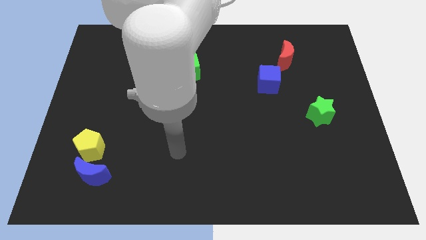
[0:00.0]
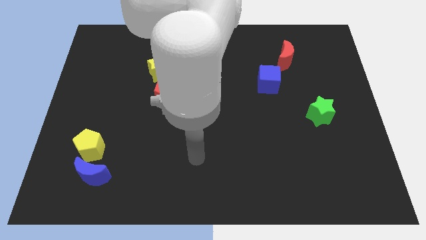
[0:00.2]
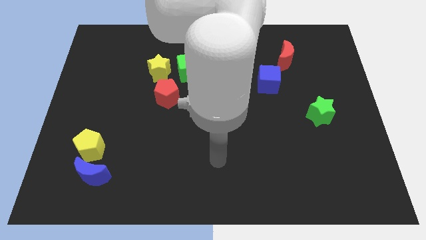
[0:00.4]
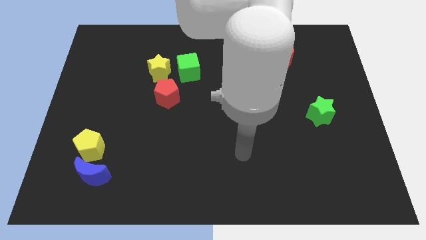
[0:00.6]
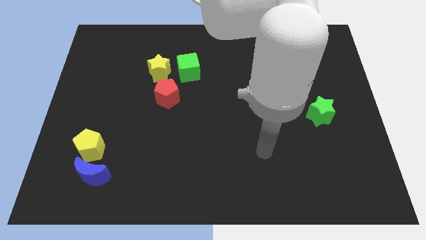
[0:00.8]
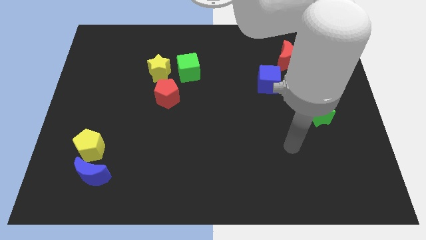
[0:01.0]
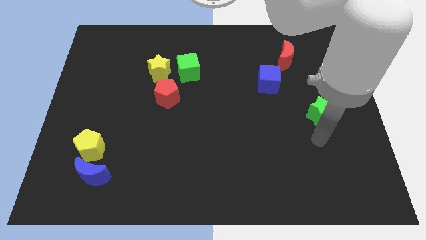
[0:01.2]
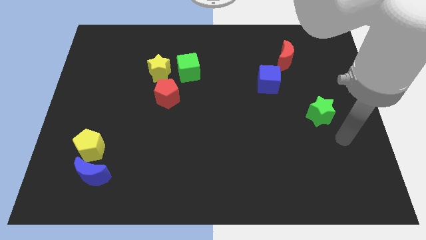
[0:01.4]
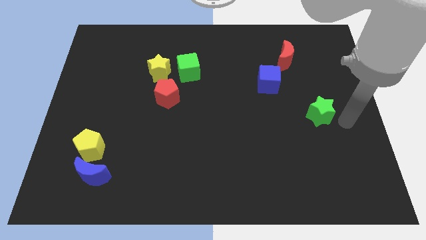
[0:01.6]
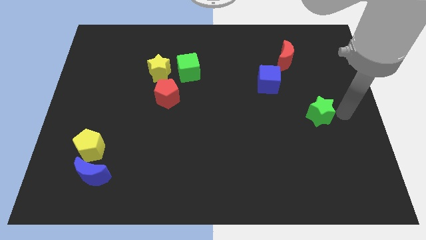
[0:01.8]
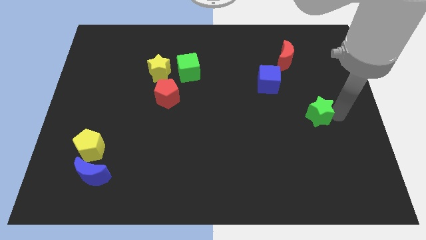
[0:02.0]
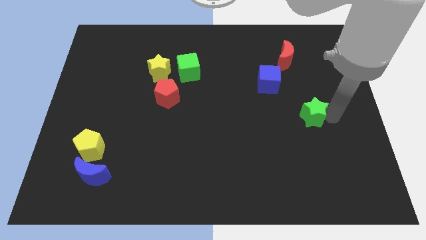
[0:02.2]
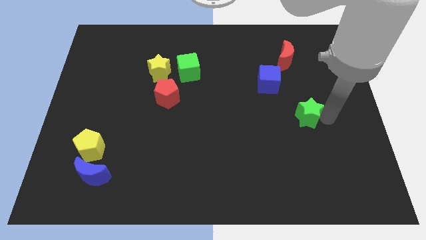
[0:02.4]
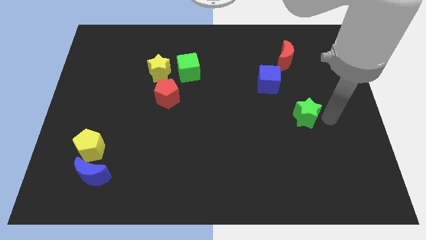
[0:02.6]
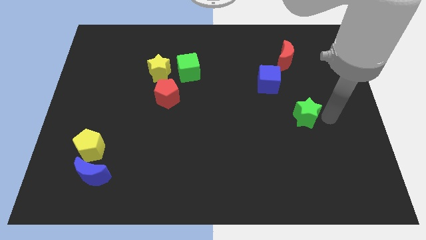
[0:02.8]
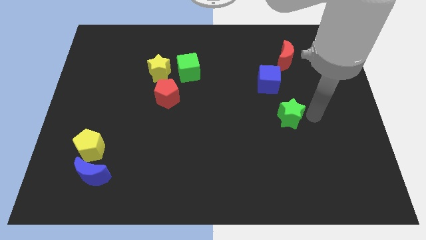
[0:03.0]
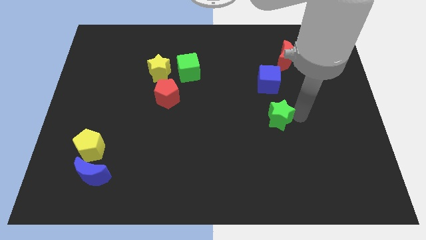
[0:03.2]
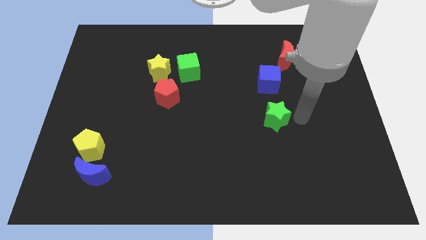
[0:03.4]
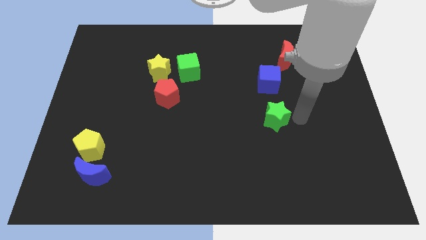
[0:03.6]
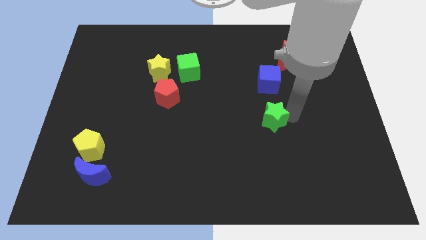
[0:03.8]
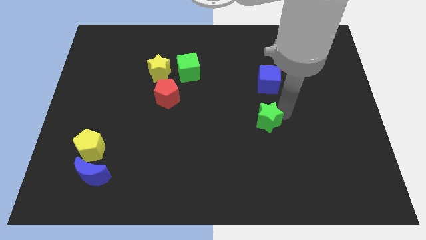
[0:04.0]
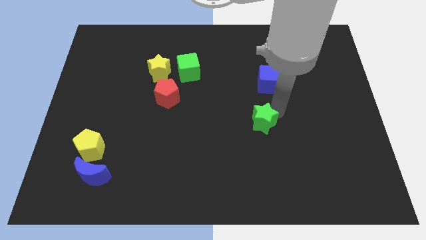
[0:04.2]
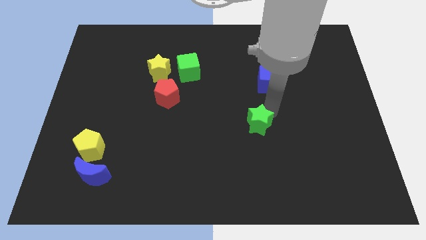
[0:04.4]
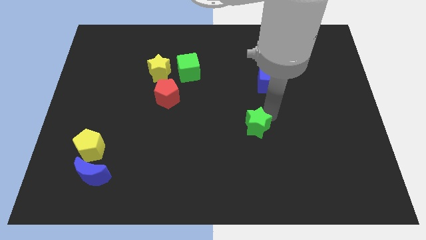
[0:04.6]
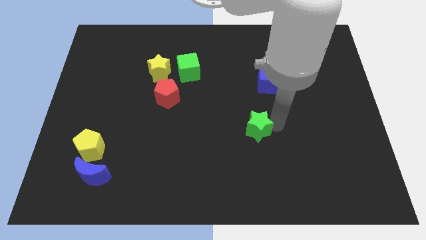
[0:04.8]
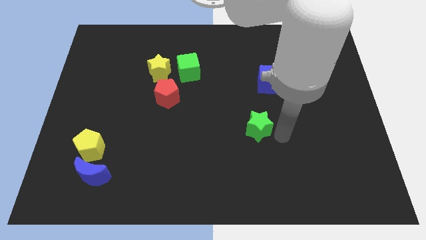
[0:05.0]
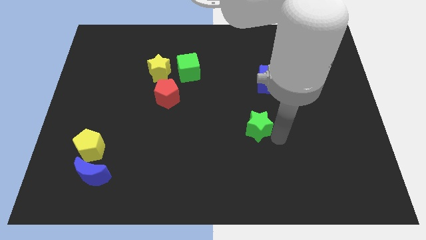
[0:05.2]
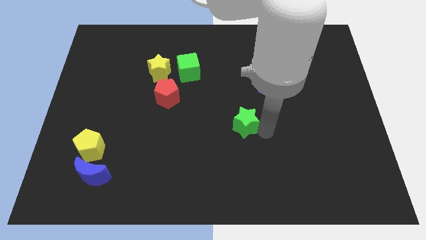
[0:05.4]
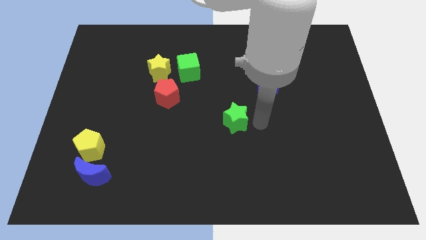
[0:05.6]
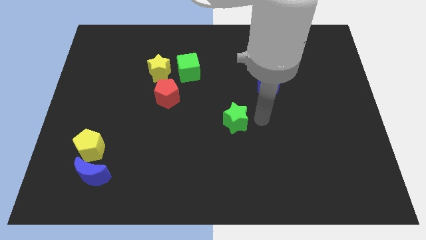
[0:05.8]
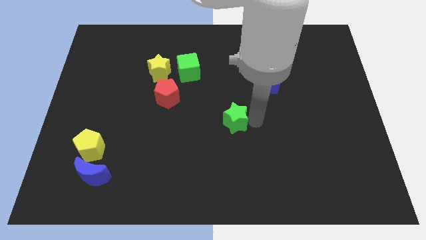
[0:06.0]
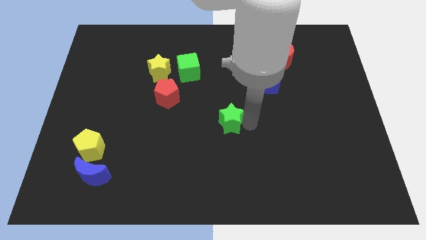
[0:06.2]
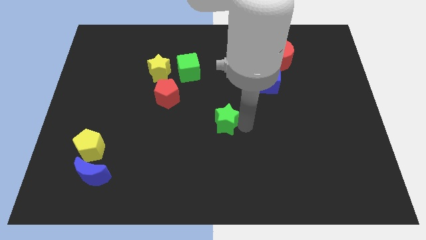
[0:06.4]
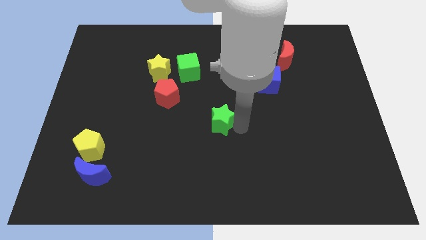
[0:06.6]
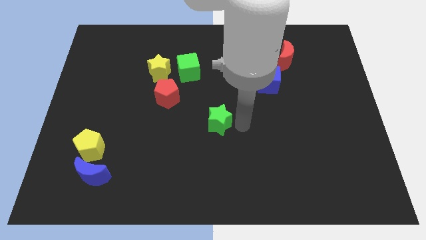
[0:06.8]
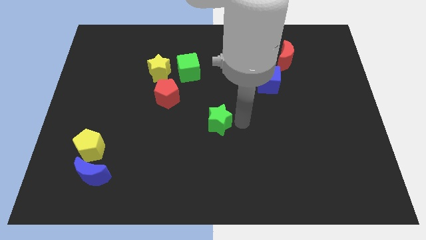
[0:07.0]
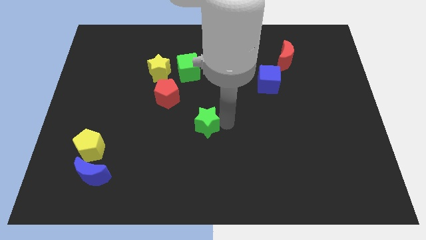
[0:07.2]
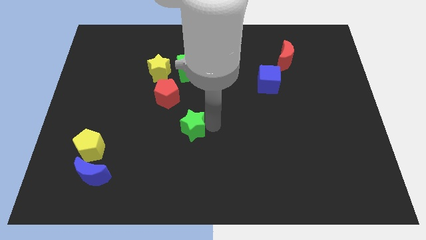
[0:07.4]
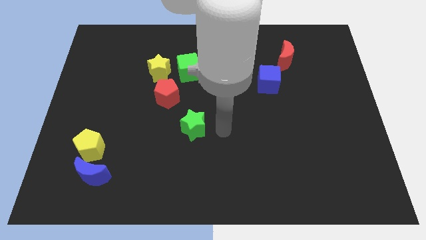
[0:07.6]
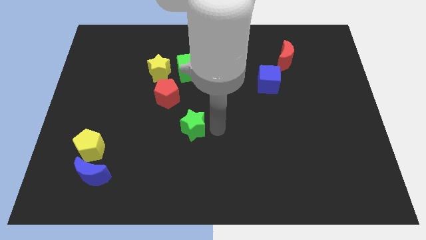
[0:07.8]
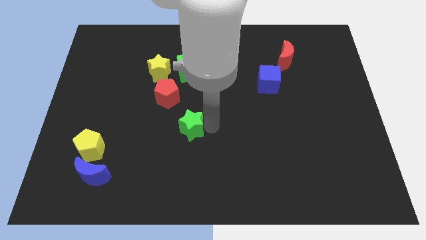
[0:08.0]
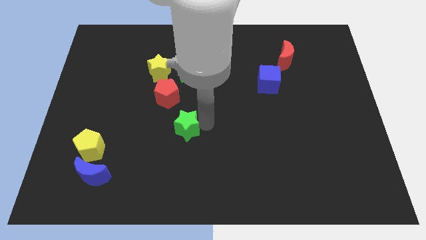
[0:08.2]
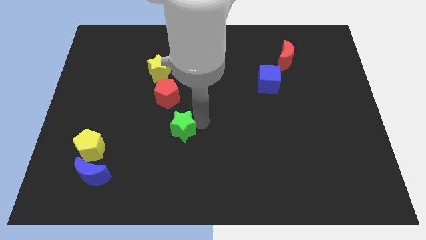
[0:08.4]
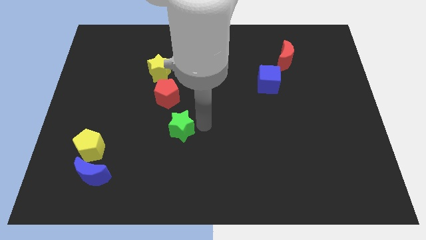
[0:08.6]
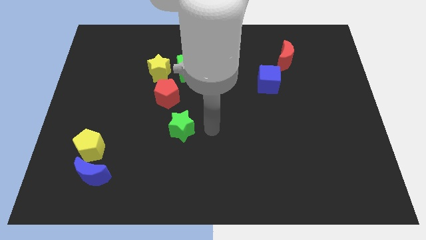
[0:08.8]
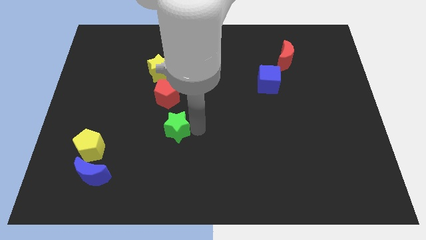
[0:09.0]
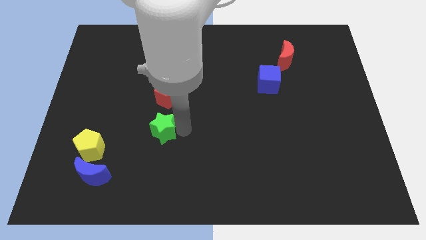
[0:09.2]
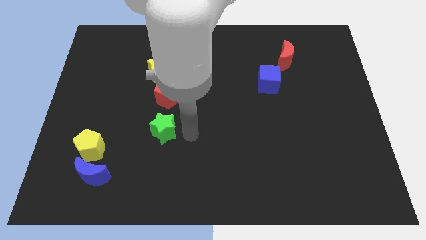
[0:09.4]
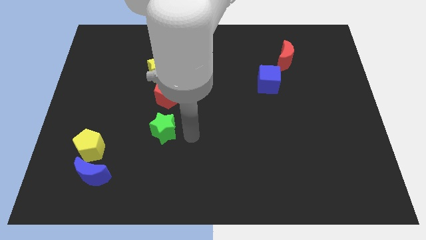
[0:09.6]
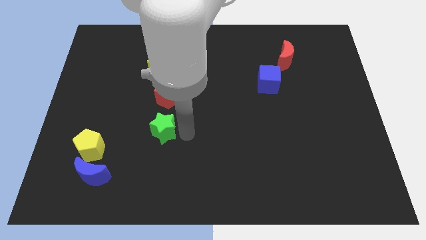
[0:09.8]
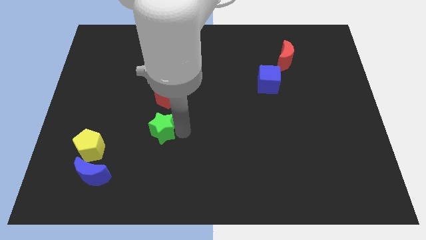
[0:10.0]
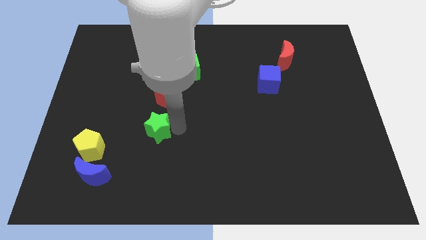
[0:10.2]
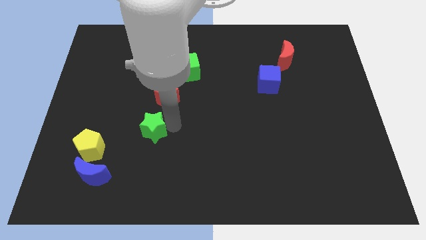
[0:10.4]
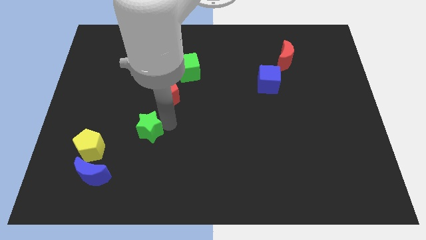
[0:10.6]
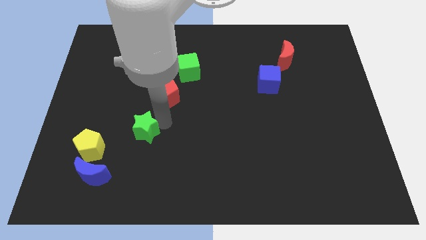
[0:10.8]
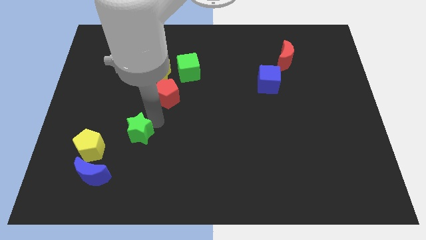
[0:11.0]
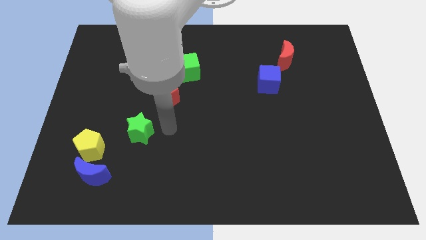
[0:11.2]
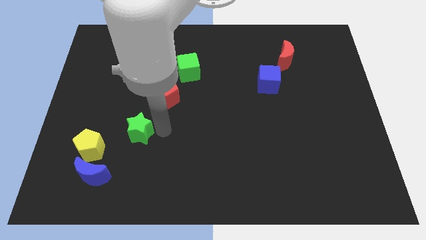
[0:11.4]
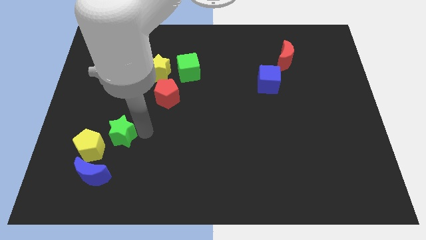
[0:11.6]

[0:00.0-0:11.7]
slide the green star above the blue moon

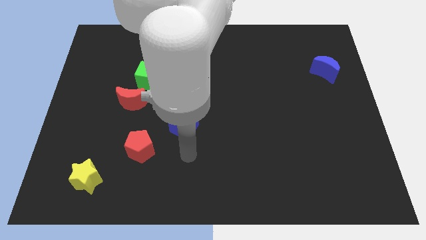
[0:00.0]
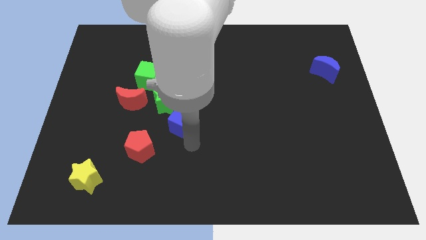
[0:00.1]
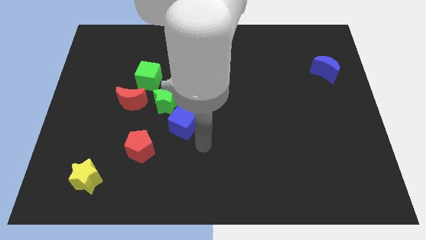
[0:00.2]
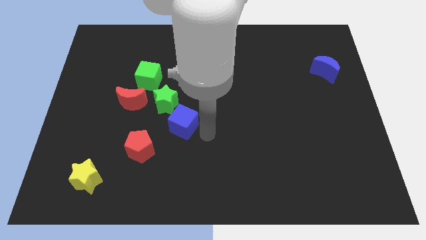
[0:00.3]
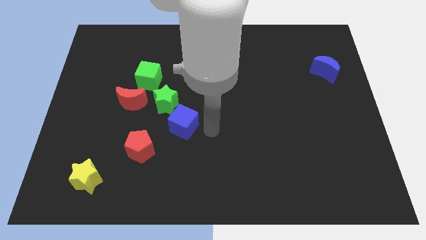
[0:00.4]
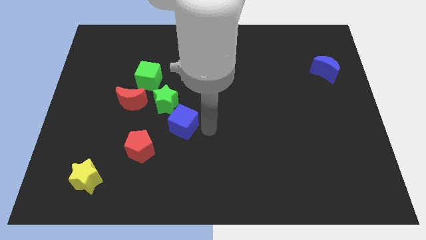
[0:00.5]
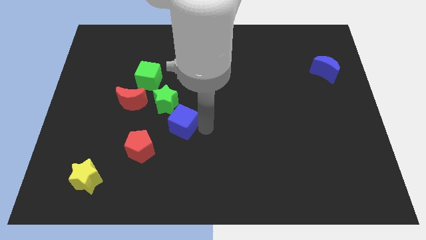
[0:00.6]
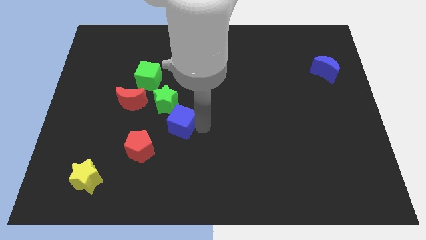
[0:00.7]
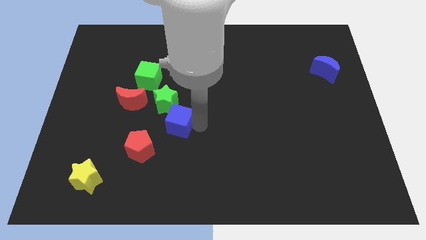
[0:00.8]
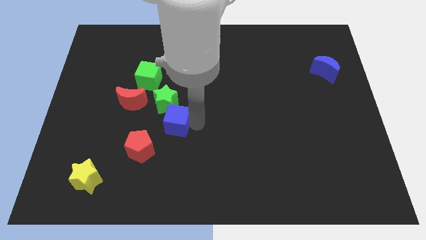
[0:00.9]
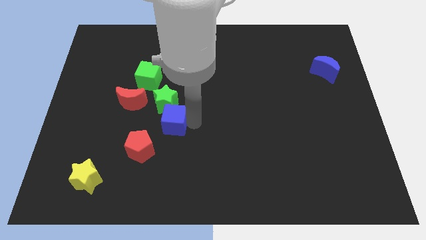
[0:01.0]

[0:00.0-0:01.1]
move the blue cube to the bottom right of the red moon

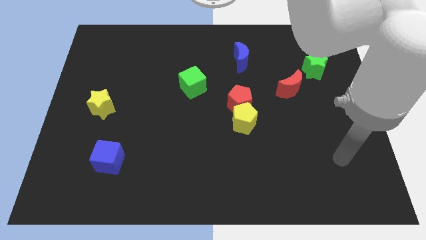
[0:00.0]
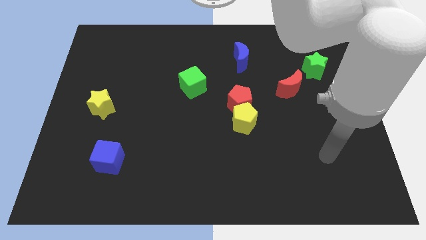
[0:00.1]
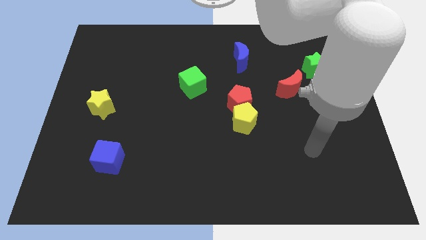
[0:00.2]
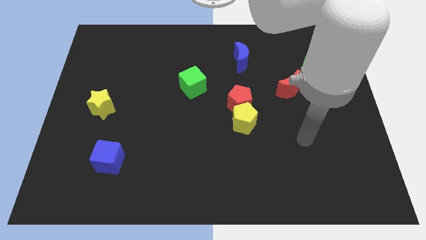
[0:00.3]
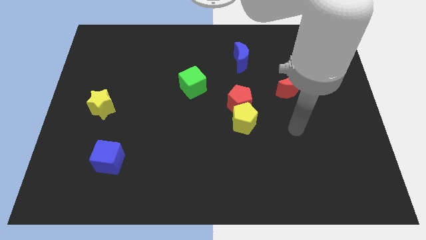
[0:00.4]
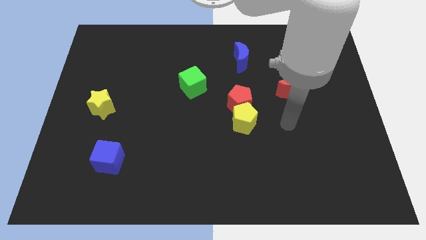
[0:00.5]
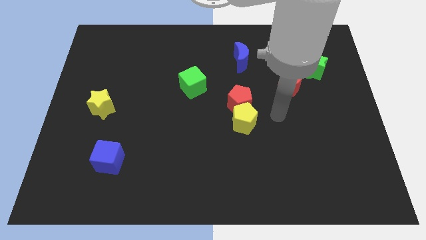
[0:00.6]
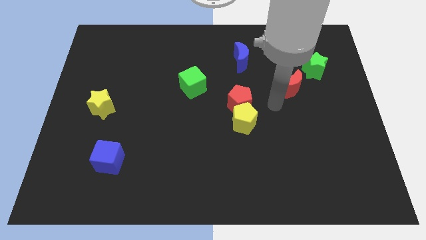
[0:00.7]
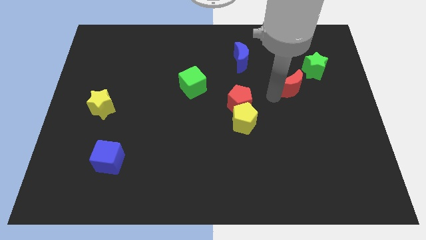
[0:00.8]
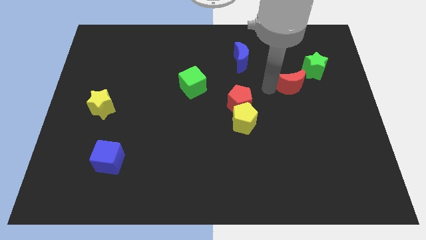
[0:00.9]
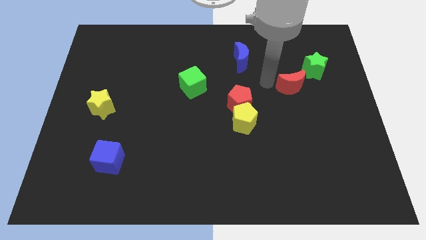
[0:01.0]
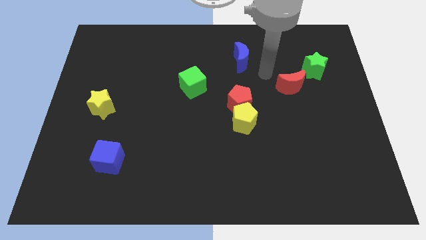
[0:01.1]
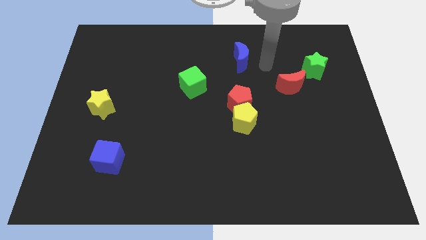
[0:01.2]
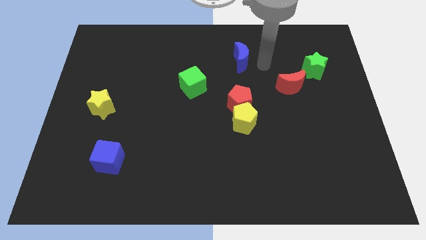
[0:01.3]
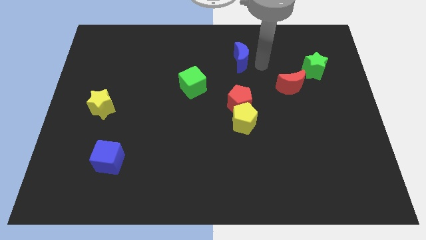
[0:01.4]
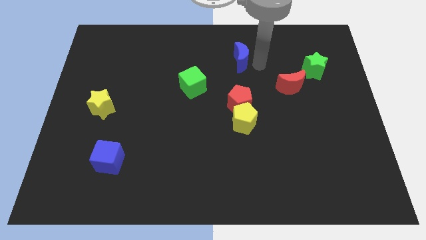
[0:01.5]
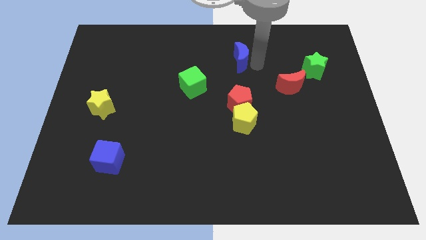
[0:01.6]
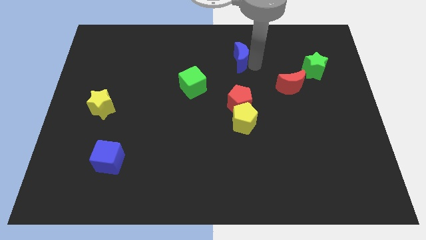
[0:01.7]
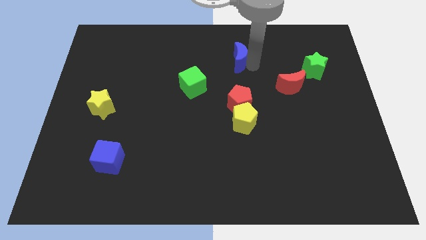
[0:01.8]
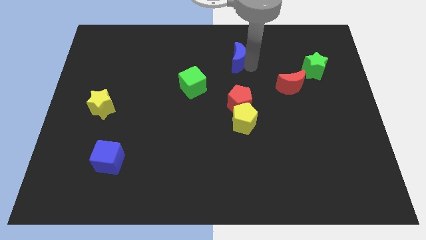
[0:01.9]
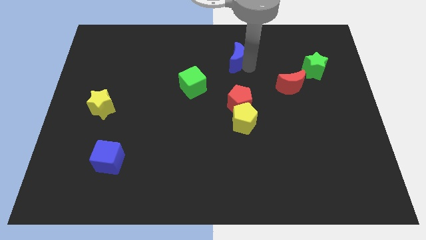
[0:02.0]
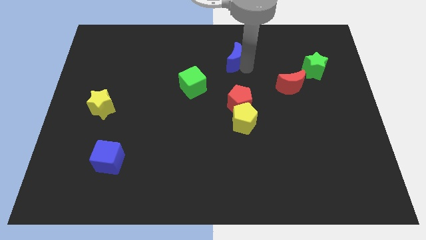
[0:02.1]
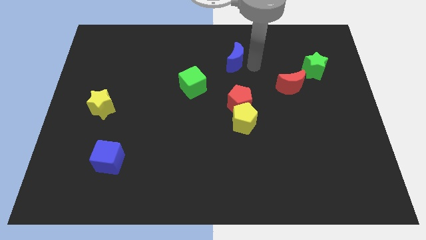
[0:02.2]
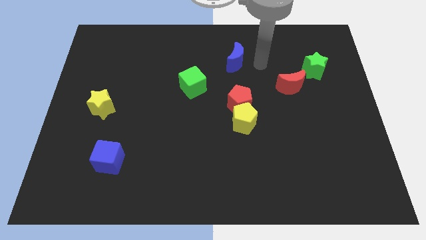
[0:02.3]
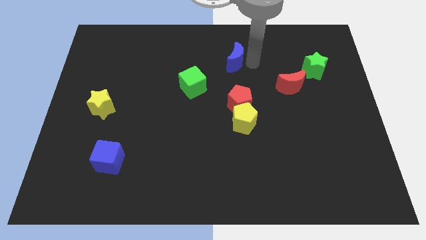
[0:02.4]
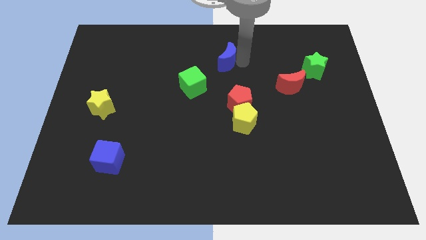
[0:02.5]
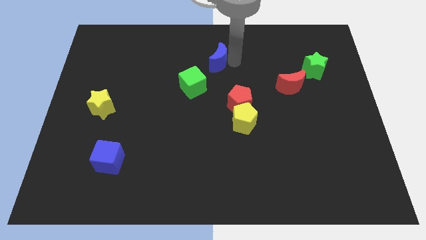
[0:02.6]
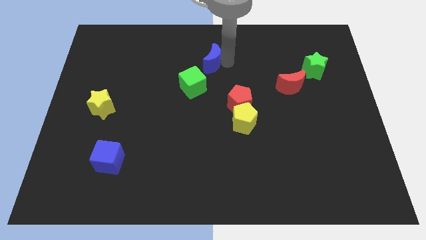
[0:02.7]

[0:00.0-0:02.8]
move the blue moon to the top side of the green cube
